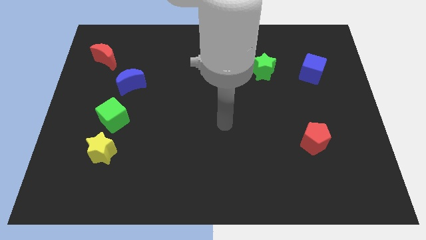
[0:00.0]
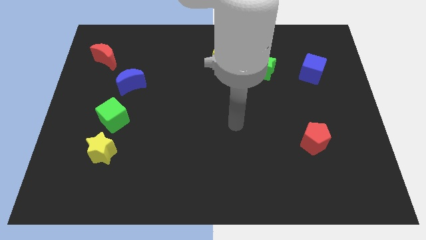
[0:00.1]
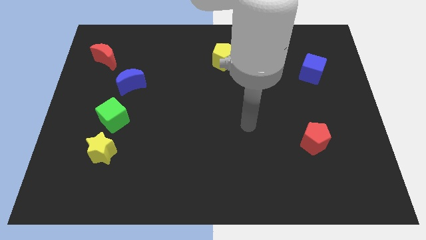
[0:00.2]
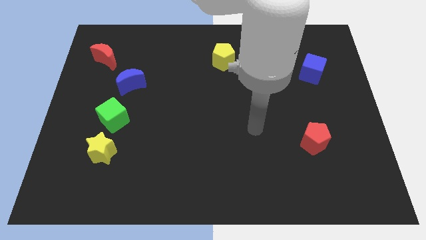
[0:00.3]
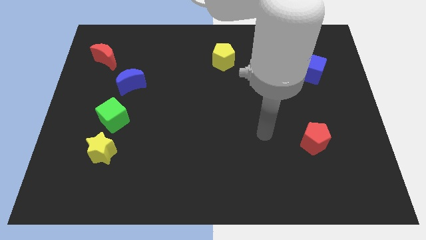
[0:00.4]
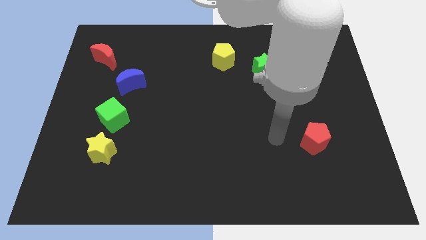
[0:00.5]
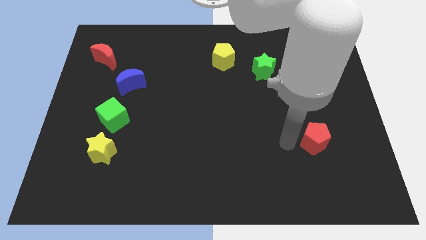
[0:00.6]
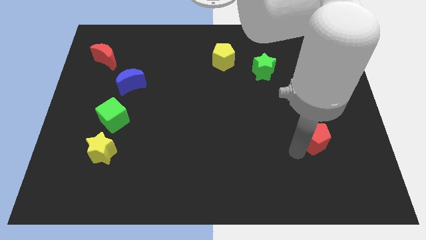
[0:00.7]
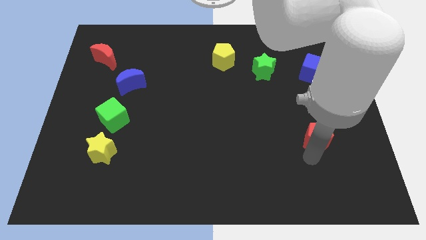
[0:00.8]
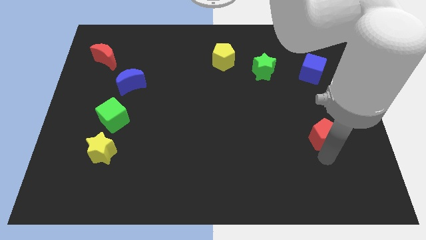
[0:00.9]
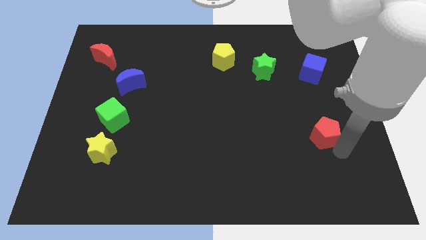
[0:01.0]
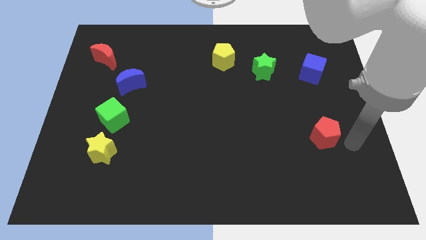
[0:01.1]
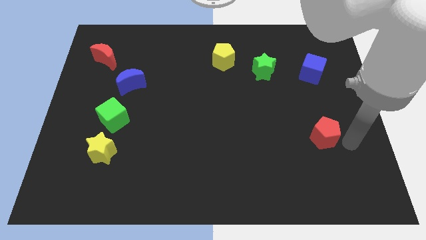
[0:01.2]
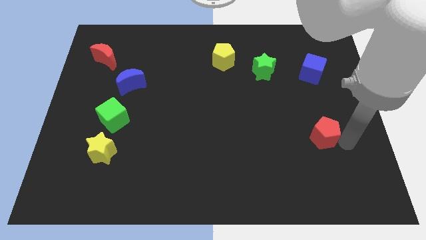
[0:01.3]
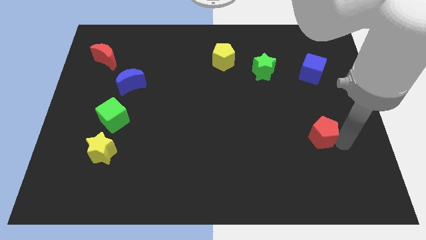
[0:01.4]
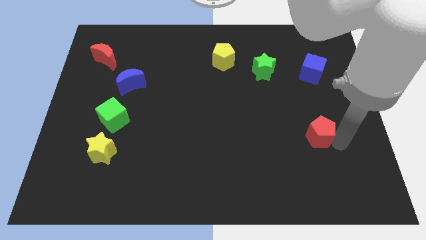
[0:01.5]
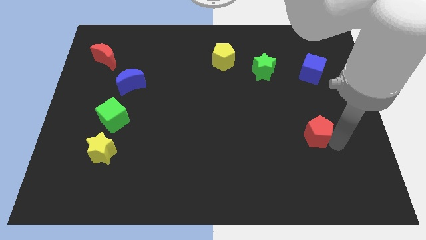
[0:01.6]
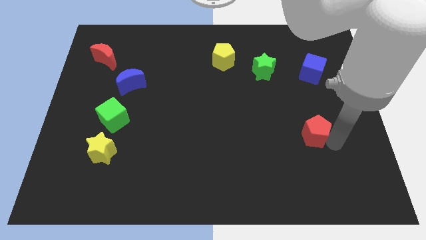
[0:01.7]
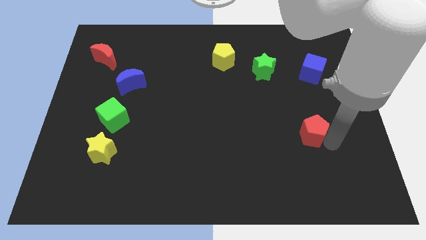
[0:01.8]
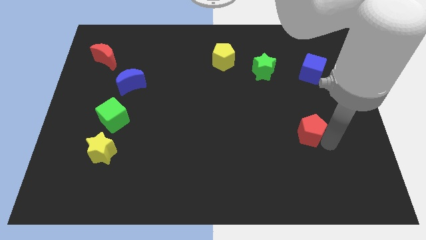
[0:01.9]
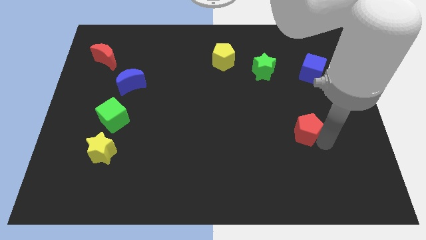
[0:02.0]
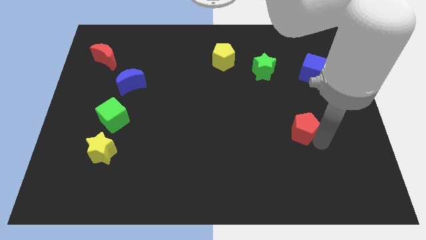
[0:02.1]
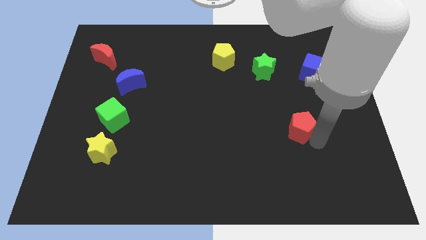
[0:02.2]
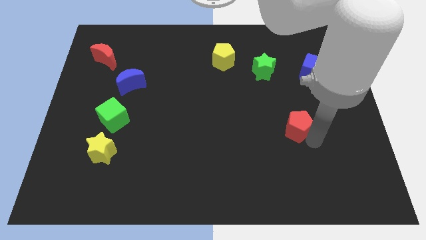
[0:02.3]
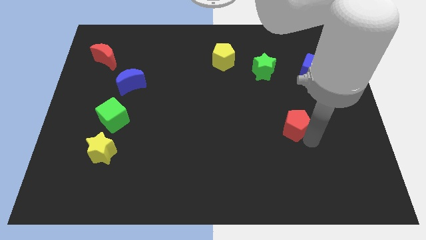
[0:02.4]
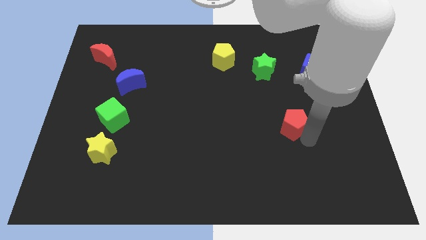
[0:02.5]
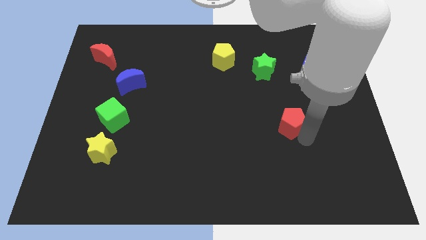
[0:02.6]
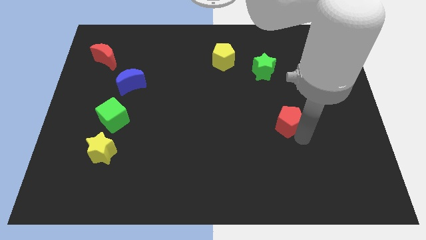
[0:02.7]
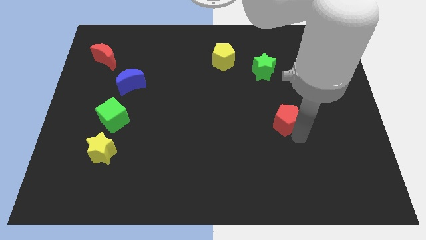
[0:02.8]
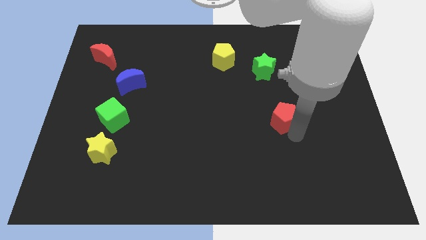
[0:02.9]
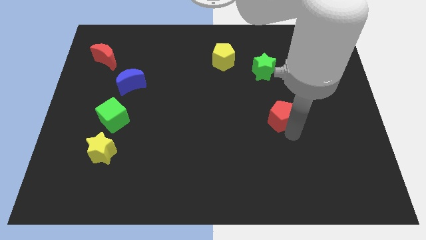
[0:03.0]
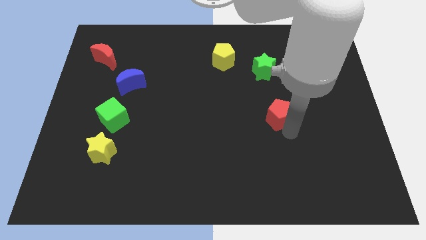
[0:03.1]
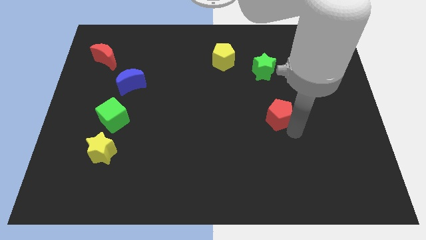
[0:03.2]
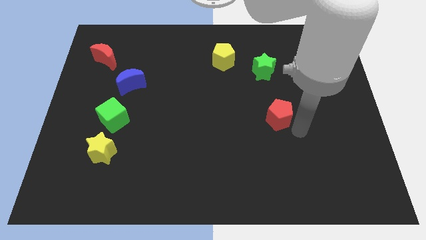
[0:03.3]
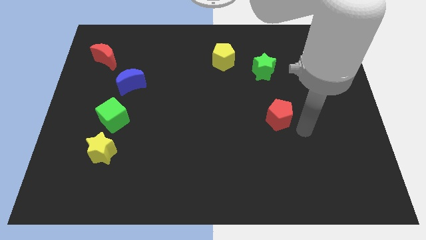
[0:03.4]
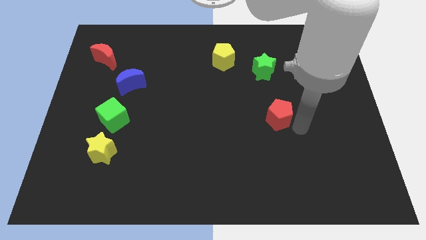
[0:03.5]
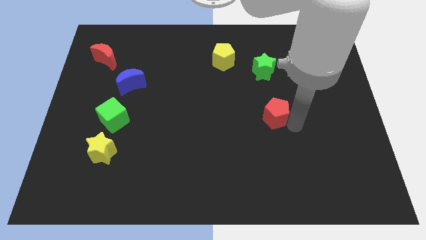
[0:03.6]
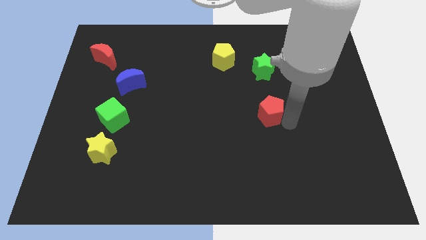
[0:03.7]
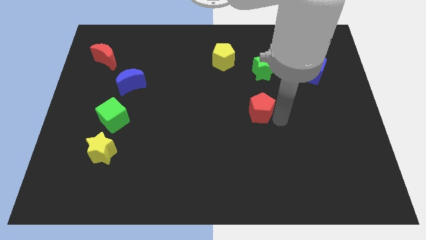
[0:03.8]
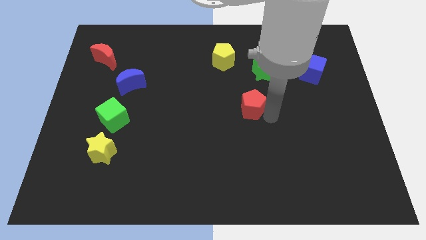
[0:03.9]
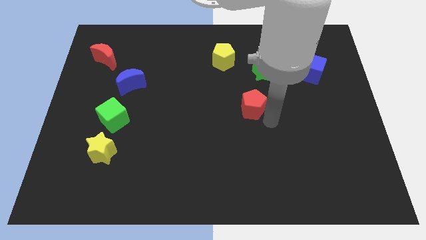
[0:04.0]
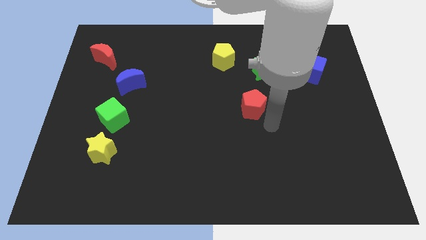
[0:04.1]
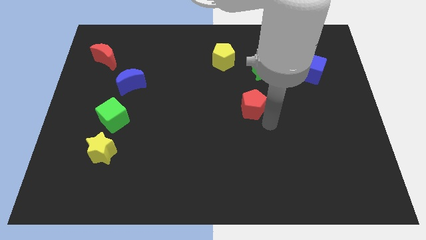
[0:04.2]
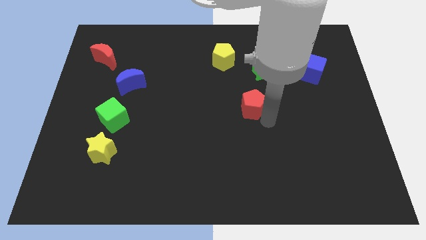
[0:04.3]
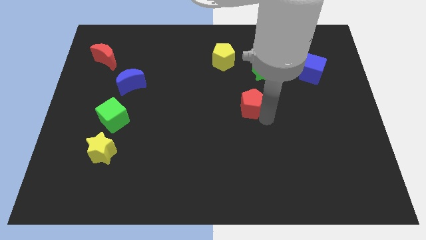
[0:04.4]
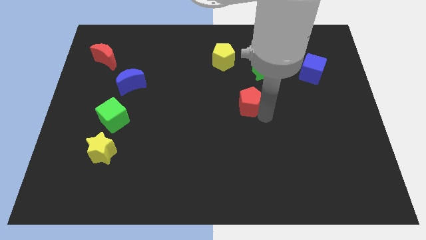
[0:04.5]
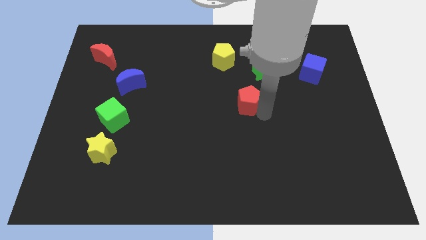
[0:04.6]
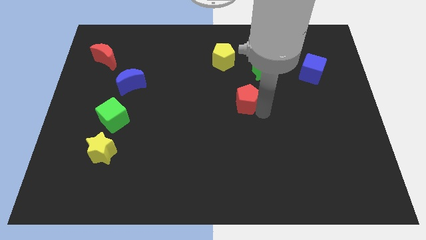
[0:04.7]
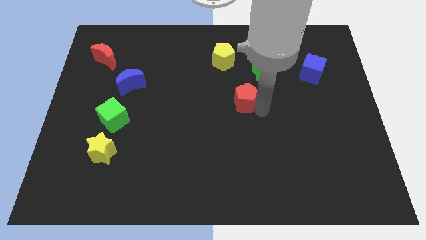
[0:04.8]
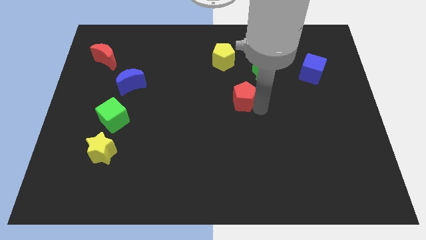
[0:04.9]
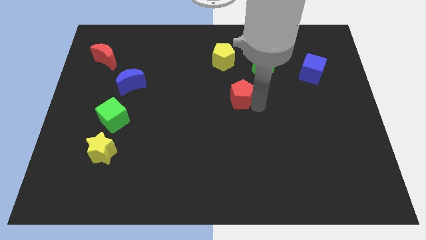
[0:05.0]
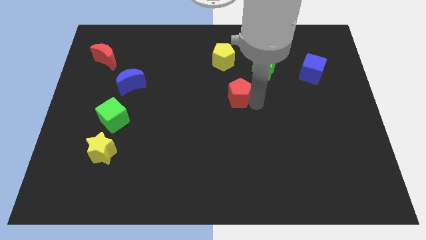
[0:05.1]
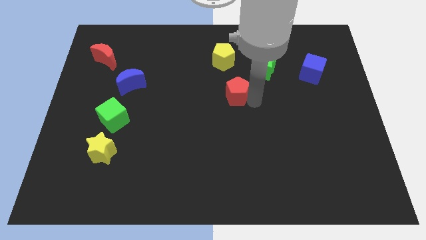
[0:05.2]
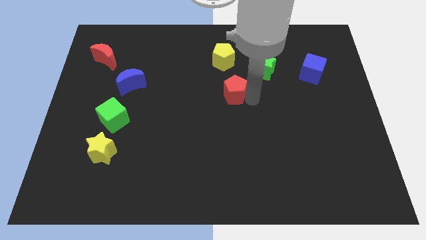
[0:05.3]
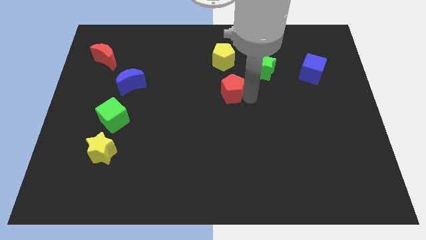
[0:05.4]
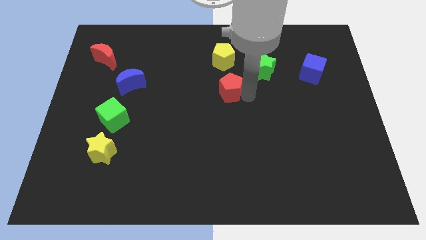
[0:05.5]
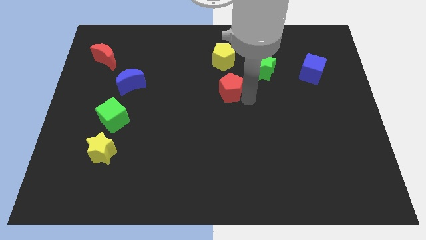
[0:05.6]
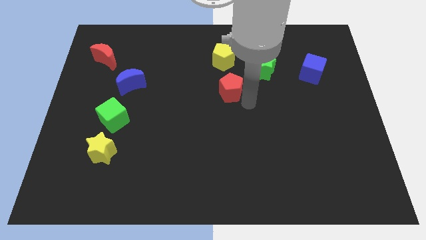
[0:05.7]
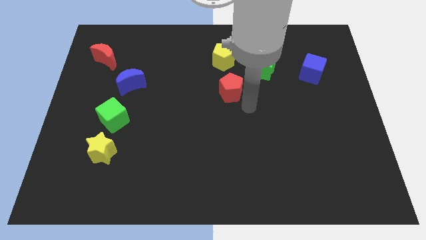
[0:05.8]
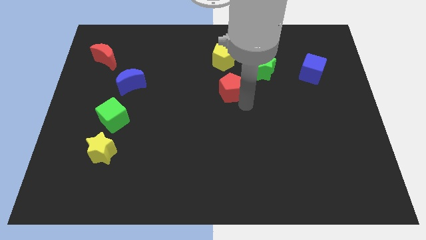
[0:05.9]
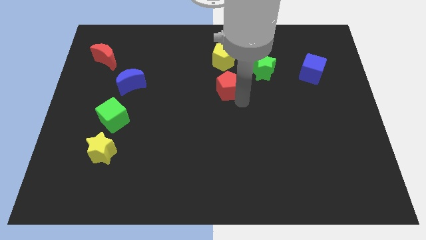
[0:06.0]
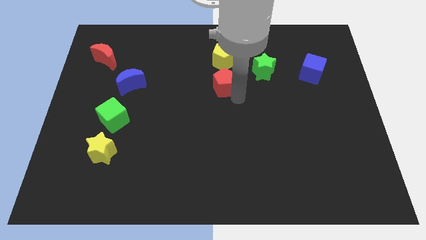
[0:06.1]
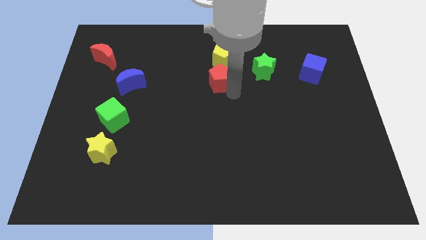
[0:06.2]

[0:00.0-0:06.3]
slide the red pentagon to the bottom left of the yellow pentagon

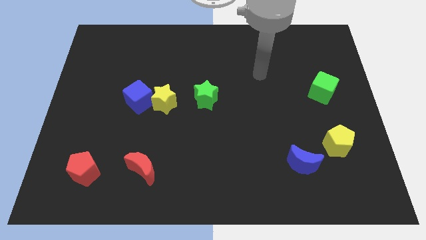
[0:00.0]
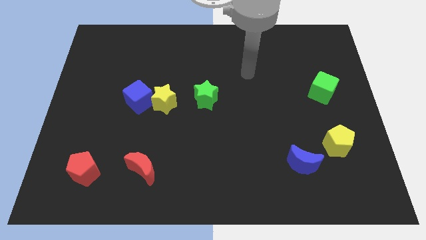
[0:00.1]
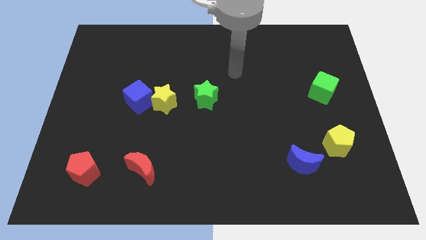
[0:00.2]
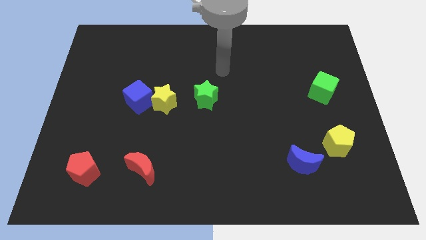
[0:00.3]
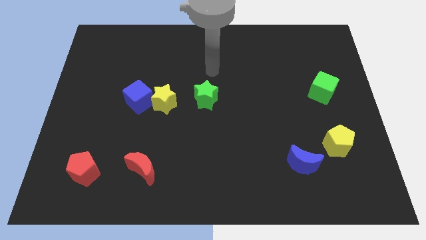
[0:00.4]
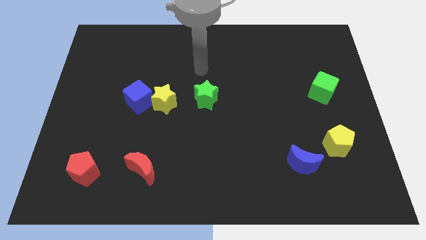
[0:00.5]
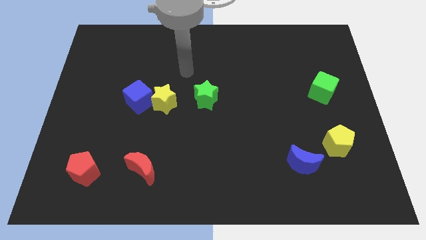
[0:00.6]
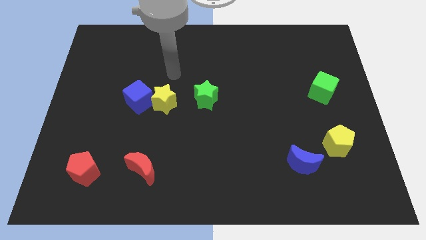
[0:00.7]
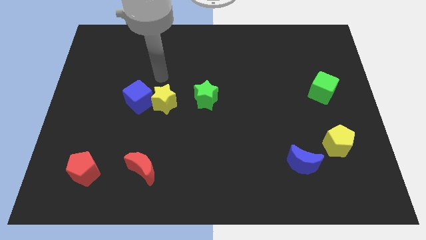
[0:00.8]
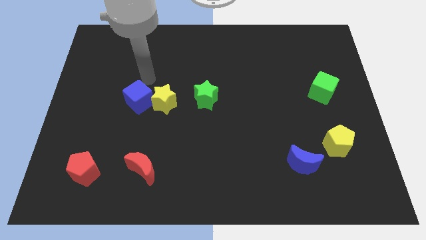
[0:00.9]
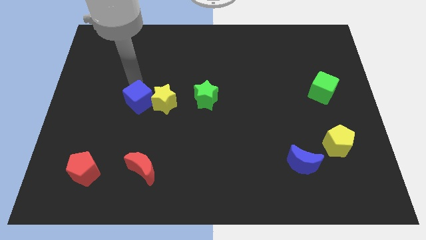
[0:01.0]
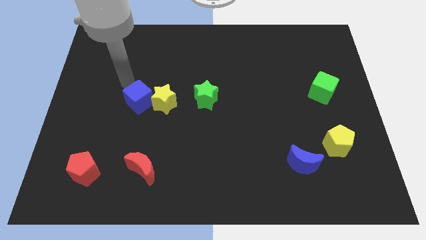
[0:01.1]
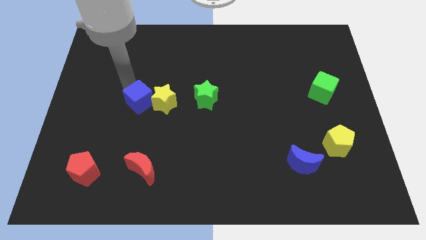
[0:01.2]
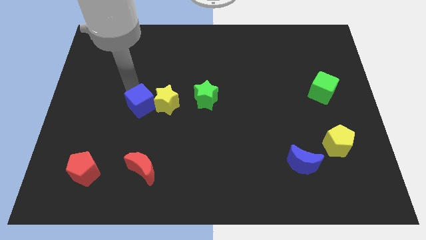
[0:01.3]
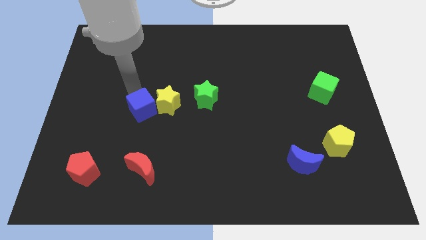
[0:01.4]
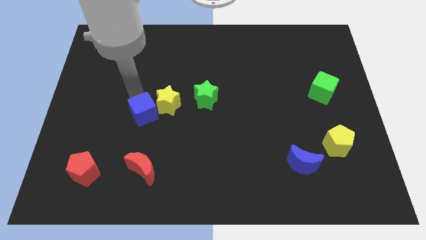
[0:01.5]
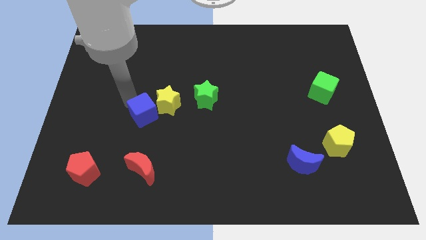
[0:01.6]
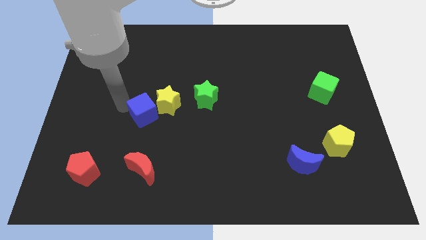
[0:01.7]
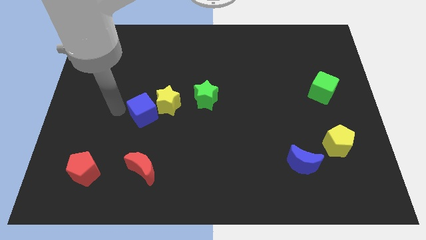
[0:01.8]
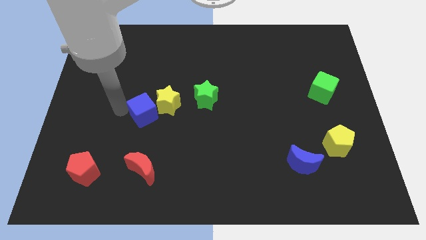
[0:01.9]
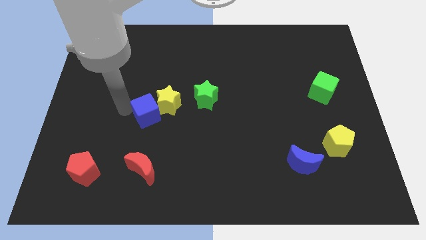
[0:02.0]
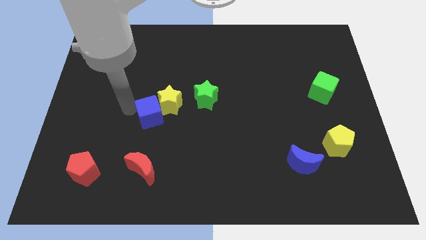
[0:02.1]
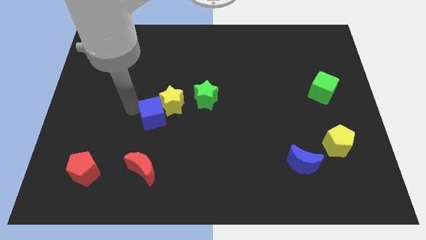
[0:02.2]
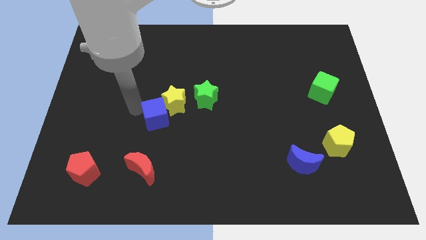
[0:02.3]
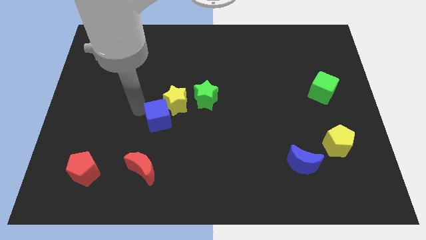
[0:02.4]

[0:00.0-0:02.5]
put the blue cube diagonally down and to the left of the green star
